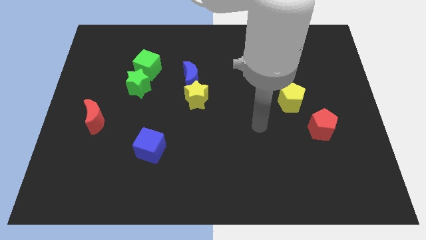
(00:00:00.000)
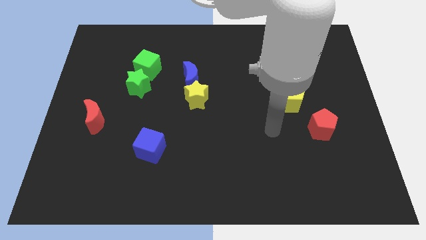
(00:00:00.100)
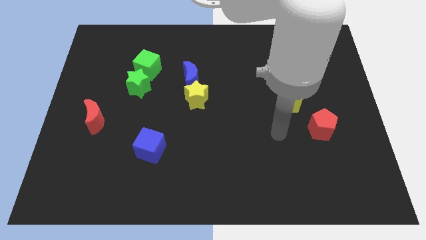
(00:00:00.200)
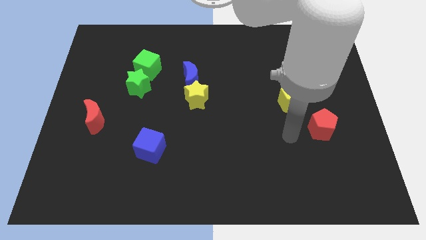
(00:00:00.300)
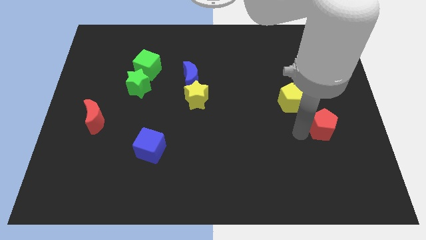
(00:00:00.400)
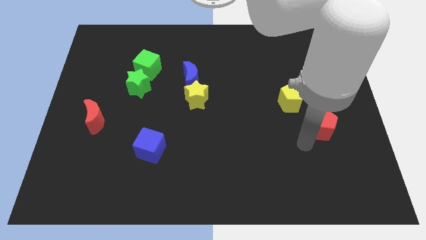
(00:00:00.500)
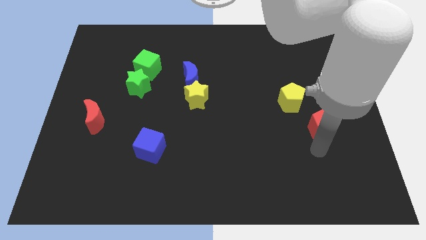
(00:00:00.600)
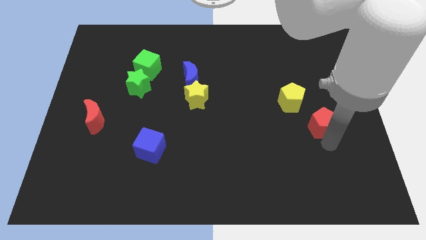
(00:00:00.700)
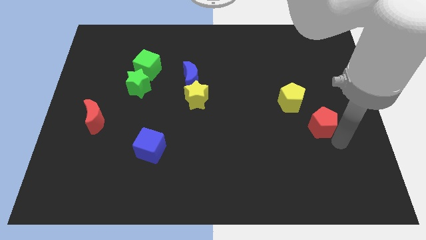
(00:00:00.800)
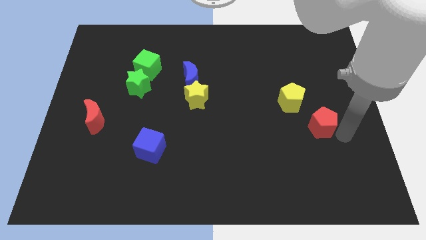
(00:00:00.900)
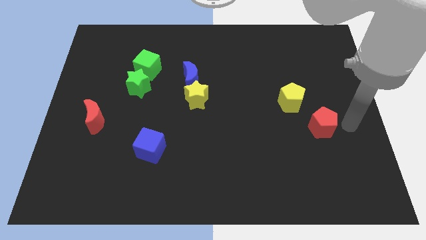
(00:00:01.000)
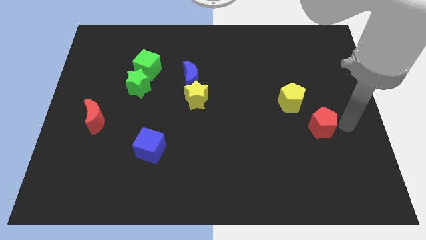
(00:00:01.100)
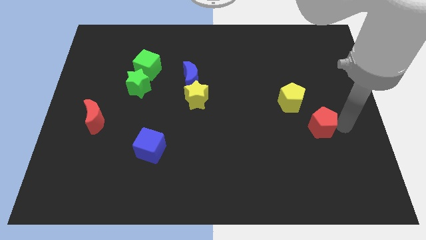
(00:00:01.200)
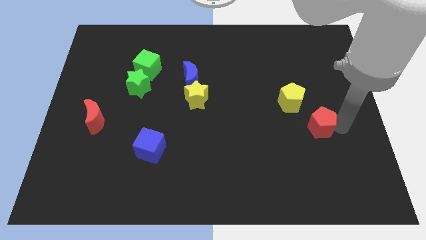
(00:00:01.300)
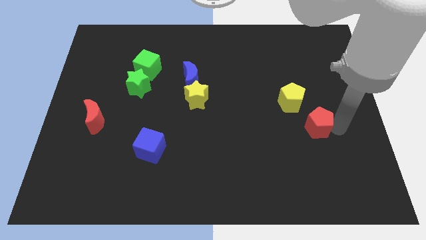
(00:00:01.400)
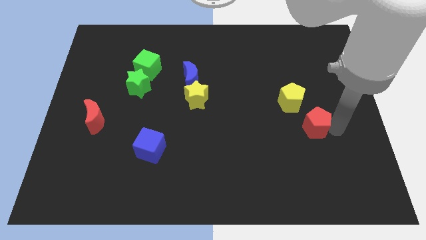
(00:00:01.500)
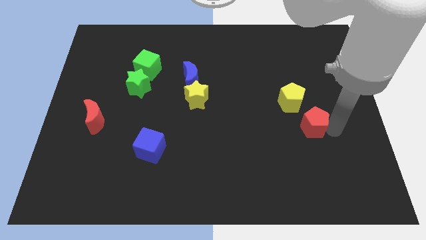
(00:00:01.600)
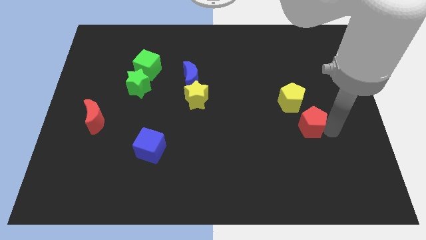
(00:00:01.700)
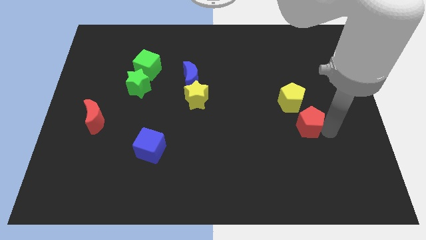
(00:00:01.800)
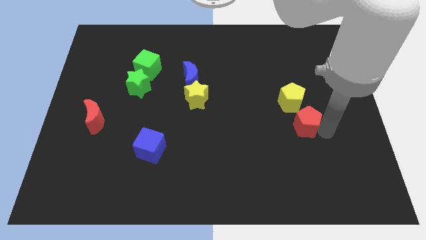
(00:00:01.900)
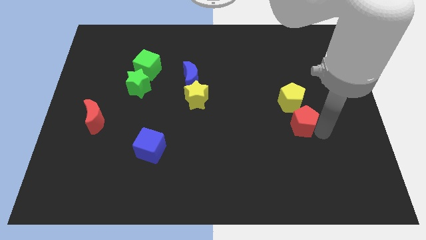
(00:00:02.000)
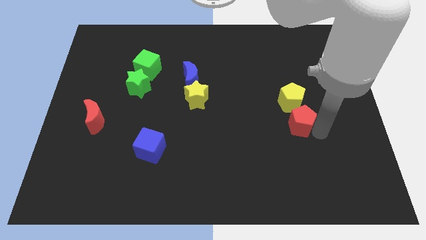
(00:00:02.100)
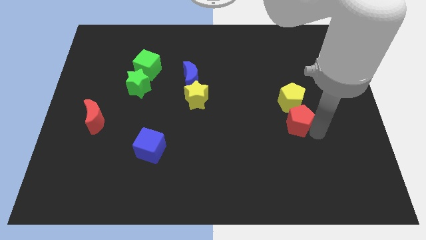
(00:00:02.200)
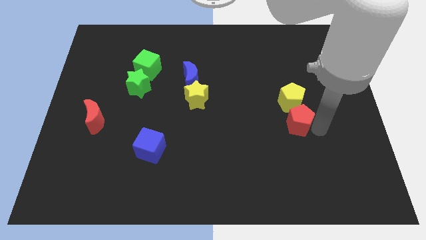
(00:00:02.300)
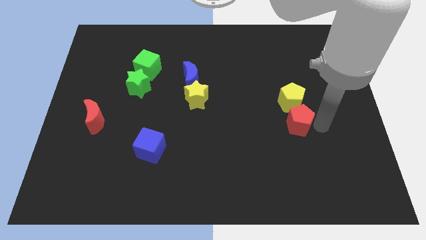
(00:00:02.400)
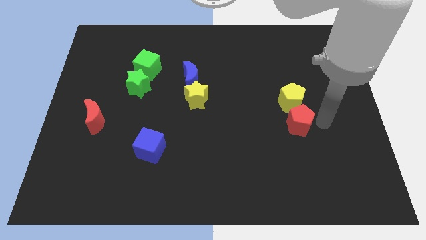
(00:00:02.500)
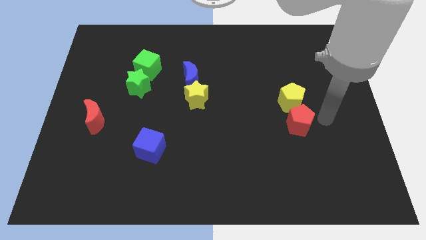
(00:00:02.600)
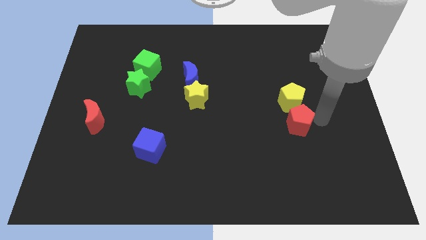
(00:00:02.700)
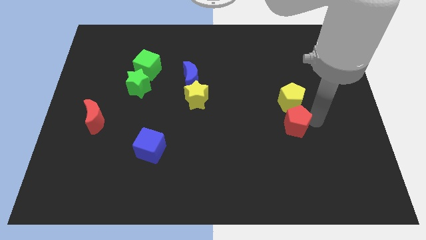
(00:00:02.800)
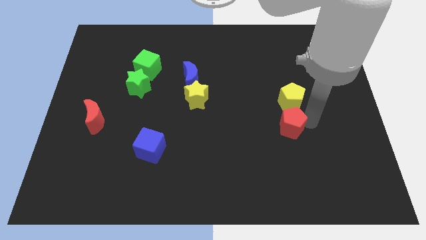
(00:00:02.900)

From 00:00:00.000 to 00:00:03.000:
slightly slide the red pentagon to the left

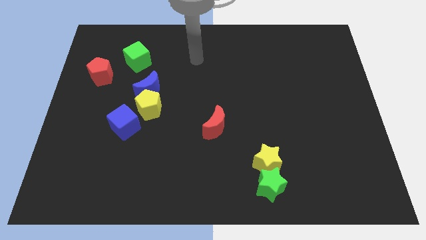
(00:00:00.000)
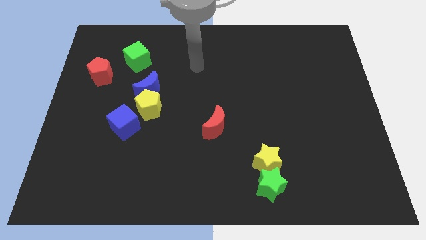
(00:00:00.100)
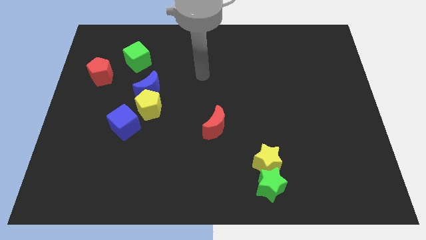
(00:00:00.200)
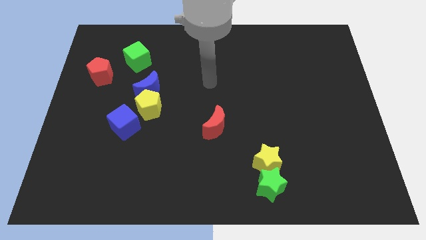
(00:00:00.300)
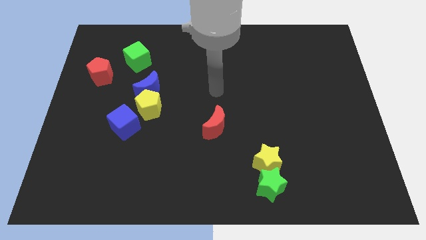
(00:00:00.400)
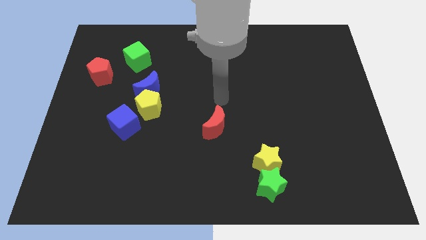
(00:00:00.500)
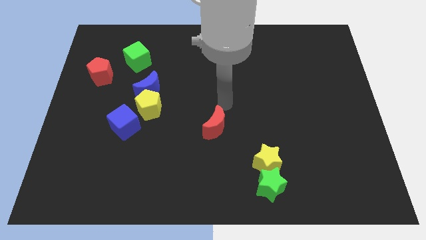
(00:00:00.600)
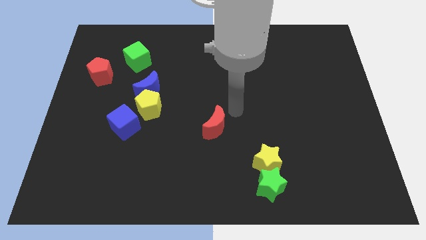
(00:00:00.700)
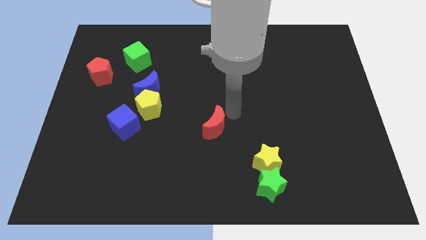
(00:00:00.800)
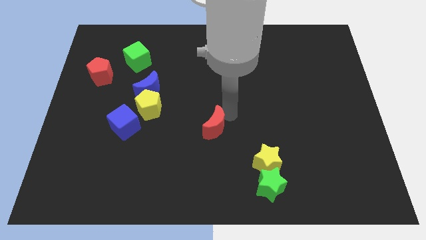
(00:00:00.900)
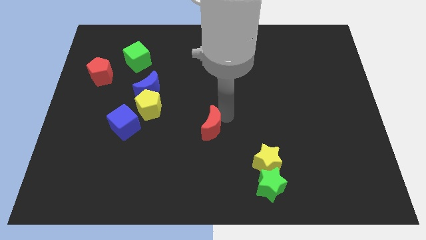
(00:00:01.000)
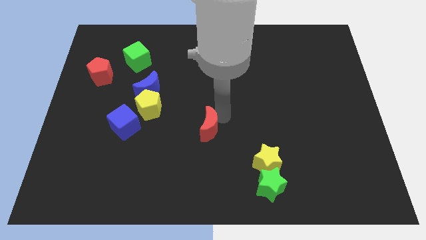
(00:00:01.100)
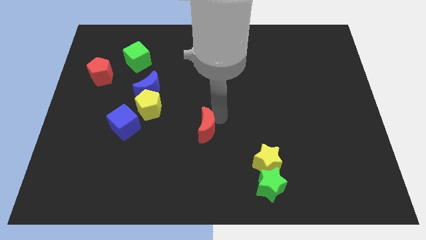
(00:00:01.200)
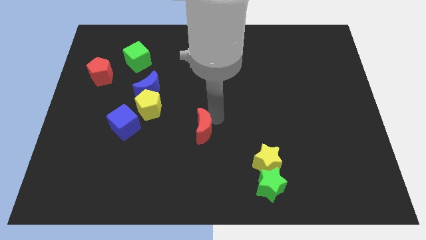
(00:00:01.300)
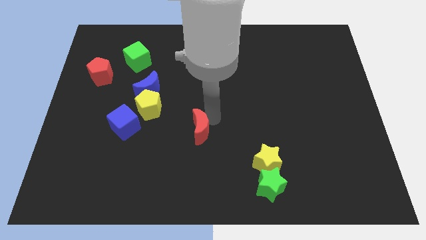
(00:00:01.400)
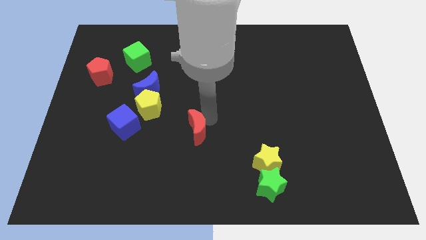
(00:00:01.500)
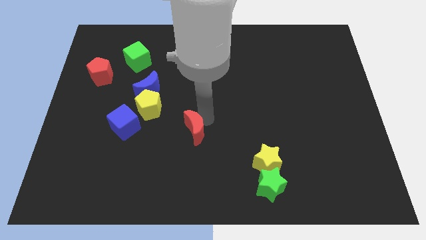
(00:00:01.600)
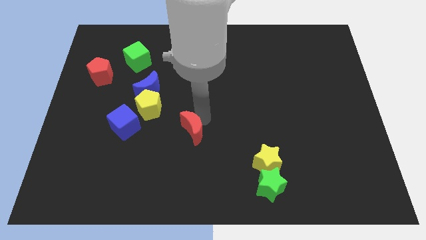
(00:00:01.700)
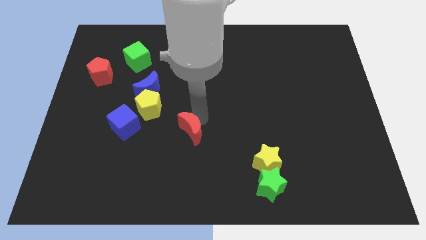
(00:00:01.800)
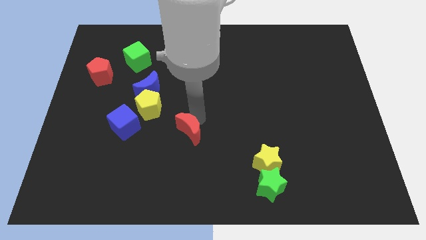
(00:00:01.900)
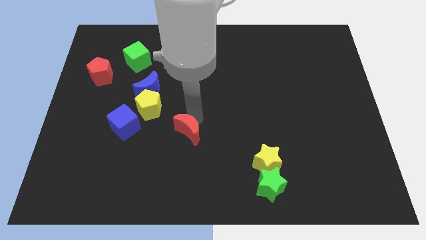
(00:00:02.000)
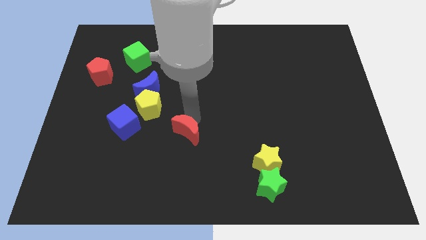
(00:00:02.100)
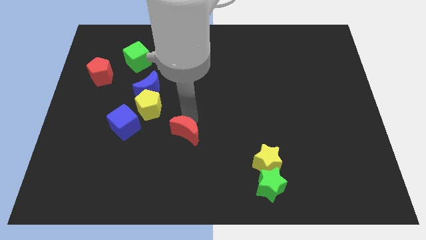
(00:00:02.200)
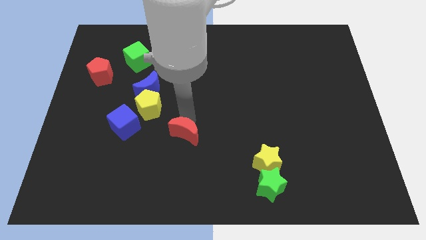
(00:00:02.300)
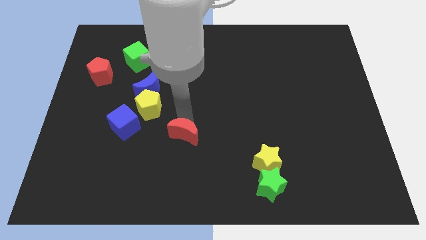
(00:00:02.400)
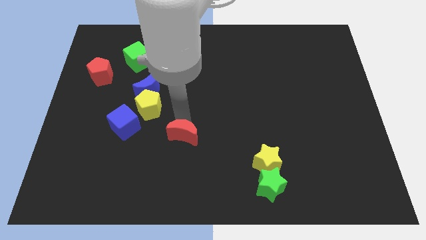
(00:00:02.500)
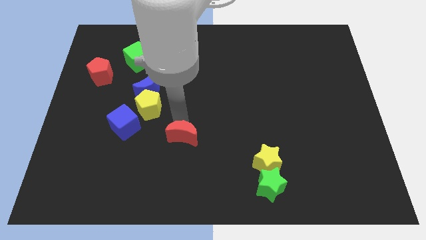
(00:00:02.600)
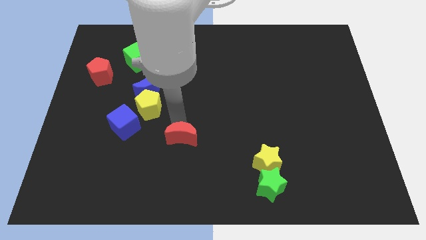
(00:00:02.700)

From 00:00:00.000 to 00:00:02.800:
push the red moon a little down and left diagonally

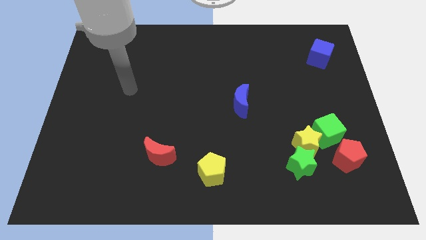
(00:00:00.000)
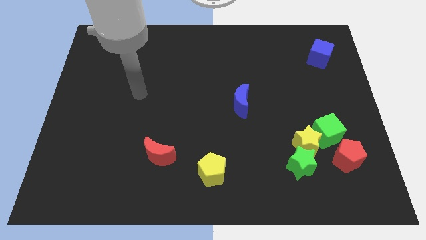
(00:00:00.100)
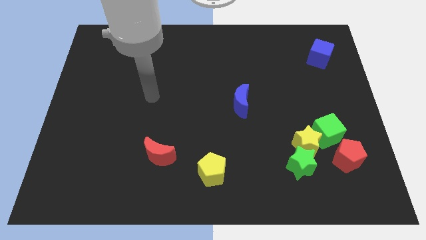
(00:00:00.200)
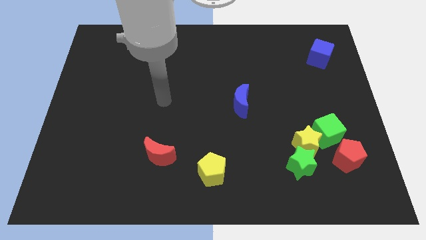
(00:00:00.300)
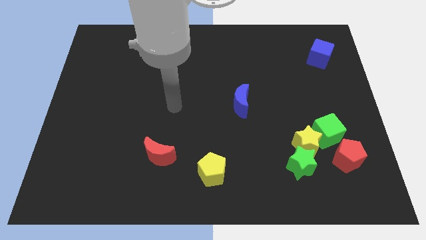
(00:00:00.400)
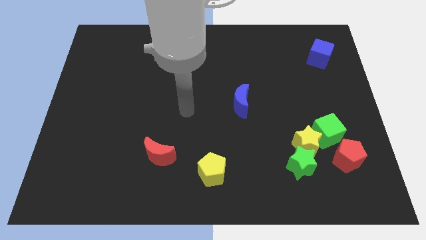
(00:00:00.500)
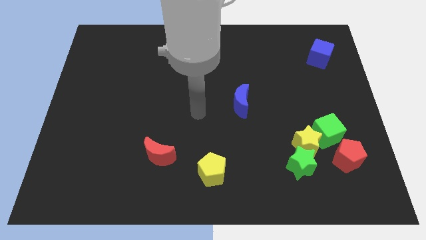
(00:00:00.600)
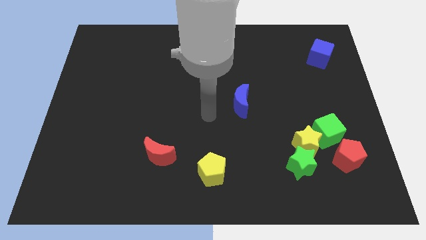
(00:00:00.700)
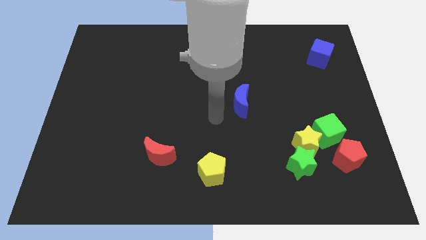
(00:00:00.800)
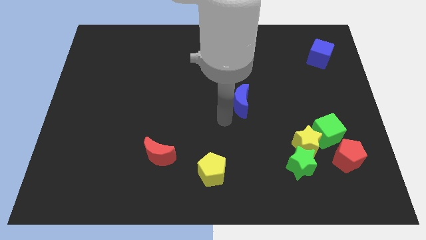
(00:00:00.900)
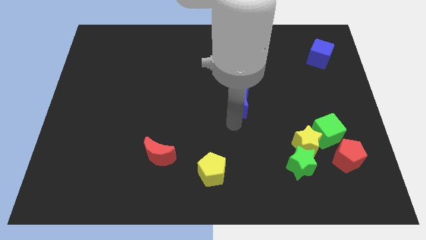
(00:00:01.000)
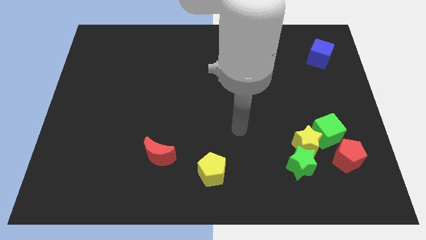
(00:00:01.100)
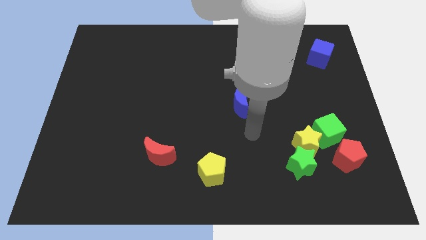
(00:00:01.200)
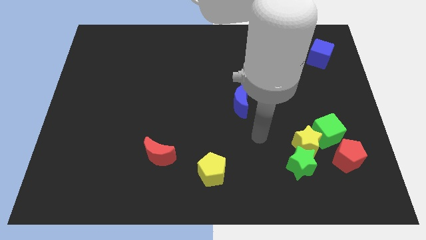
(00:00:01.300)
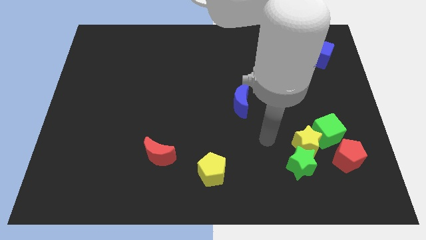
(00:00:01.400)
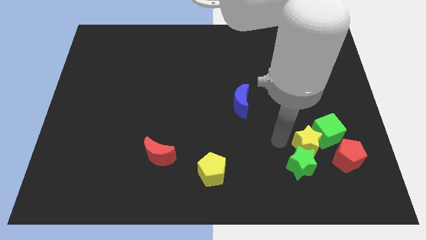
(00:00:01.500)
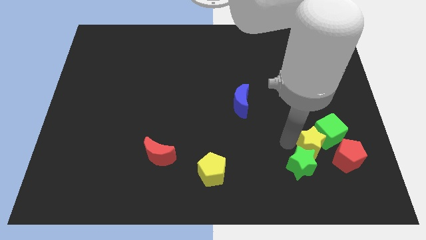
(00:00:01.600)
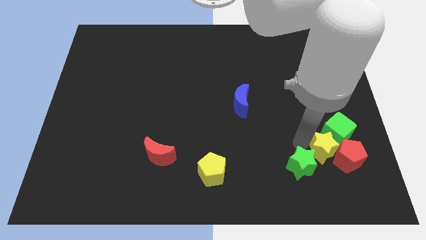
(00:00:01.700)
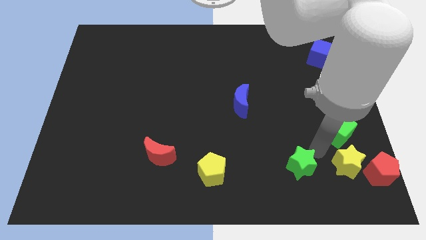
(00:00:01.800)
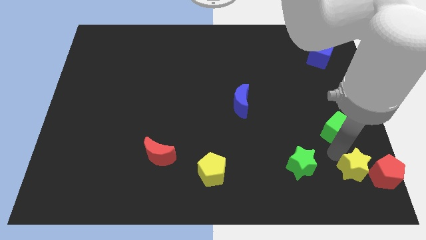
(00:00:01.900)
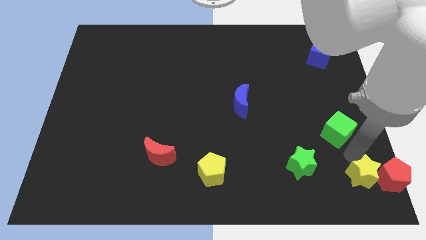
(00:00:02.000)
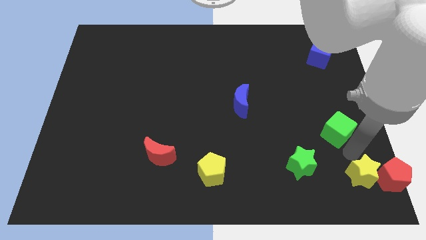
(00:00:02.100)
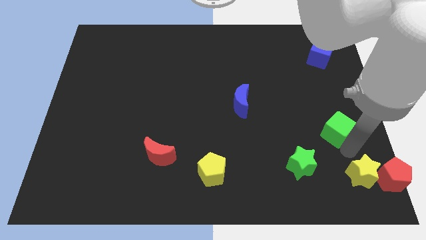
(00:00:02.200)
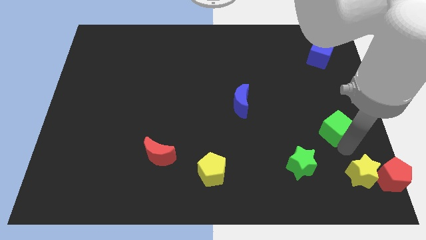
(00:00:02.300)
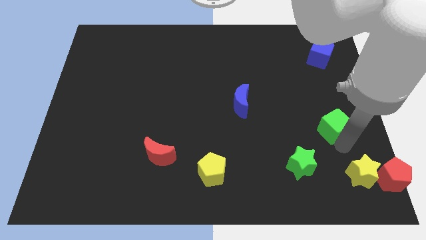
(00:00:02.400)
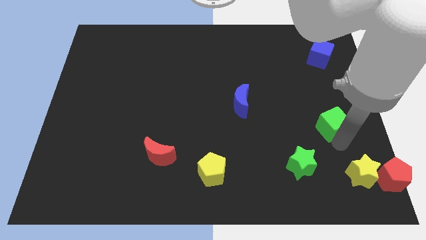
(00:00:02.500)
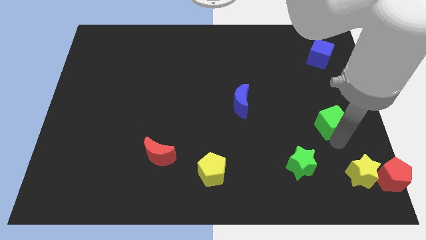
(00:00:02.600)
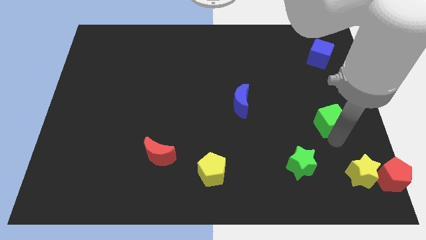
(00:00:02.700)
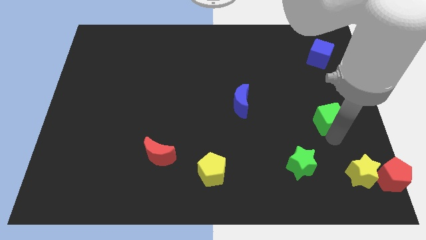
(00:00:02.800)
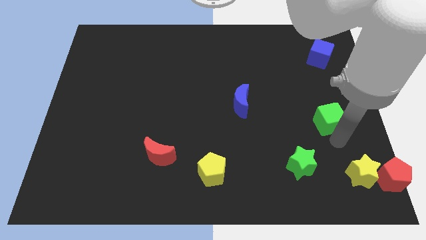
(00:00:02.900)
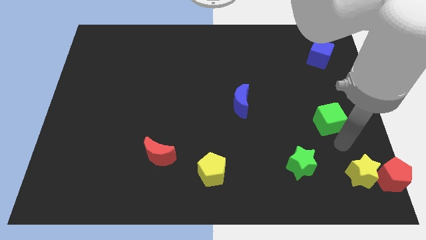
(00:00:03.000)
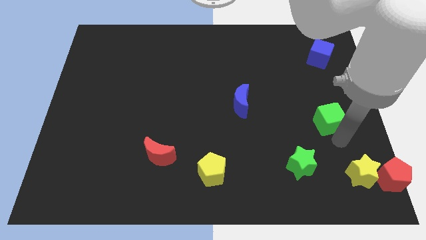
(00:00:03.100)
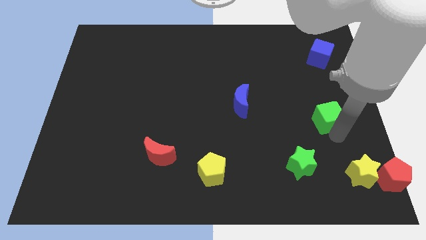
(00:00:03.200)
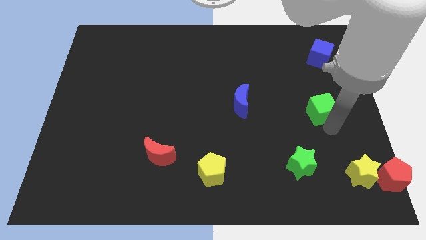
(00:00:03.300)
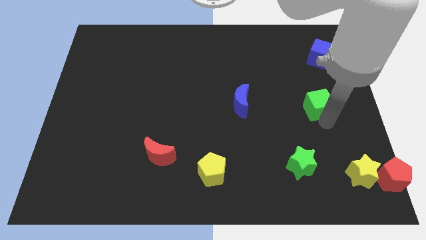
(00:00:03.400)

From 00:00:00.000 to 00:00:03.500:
push the green cube up a bit
